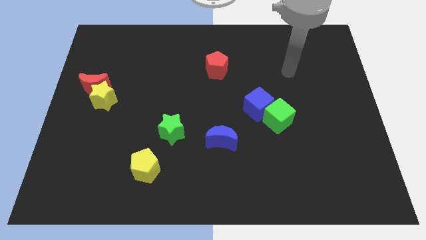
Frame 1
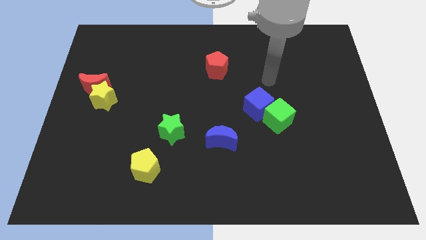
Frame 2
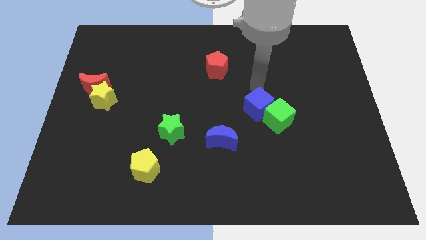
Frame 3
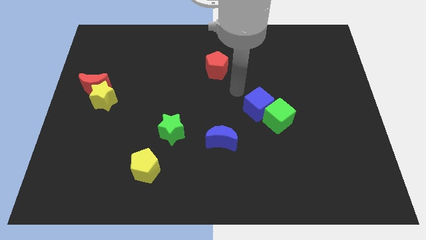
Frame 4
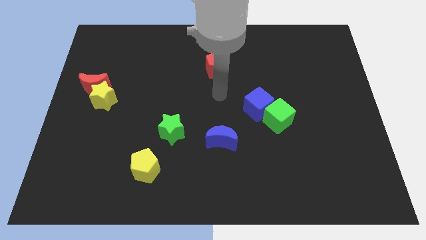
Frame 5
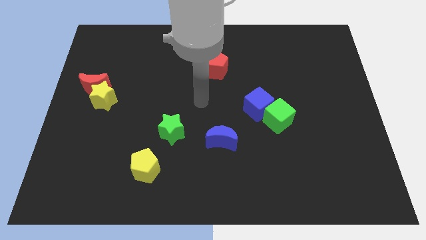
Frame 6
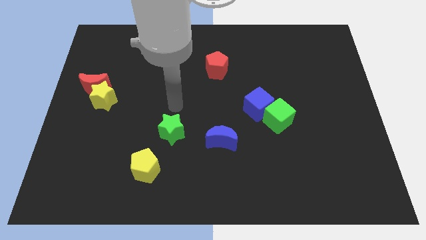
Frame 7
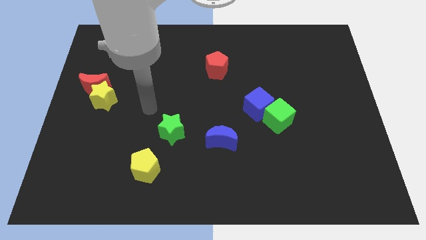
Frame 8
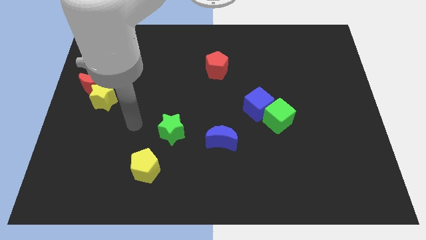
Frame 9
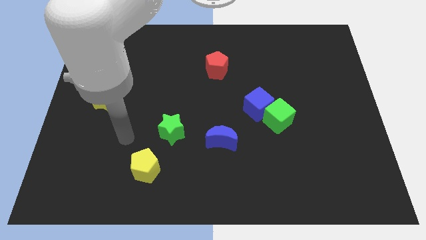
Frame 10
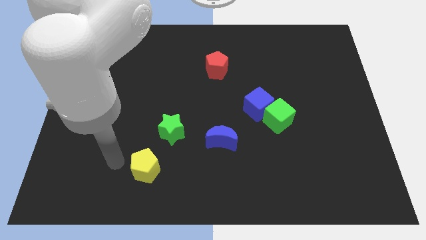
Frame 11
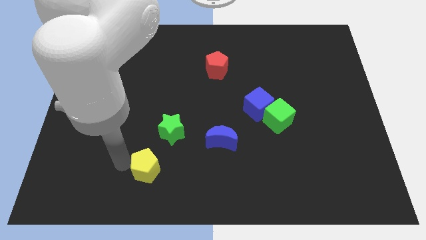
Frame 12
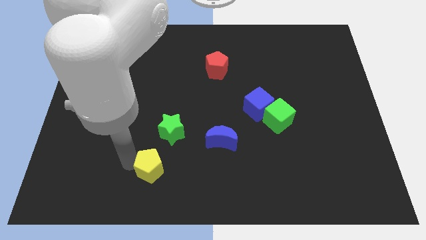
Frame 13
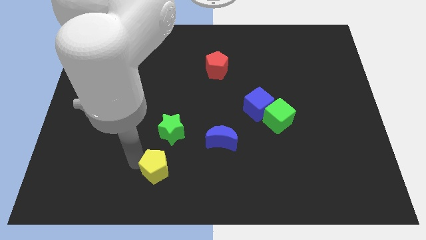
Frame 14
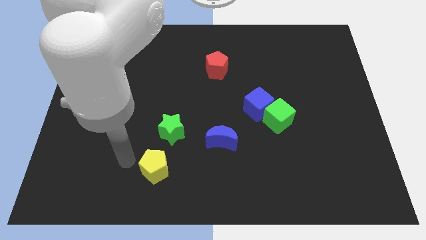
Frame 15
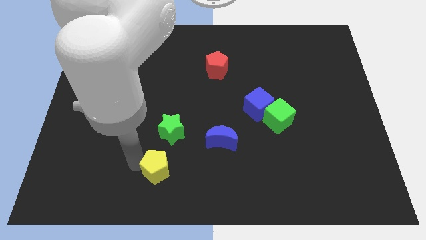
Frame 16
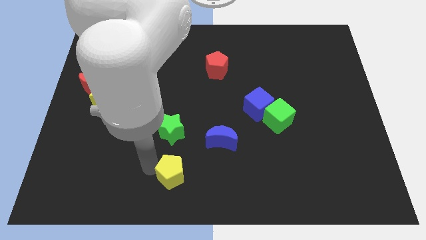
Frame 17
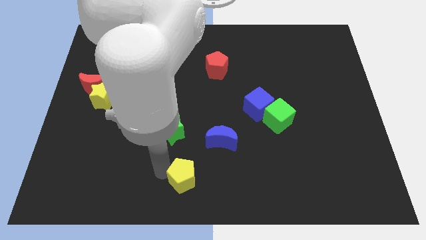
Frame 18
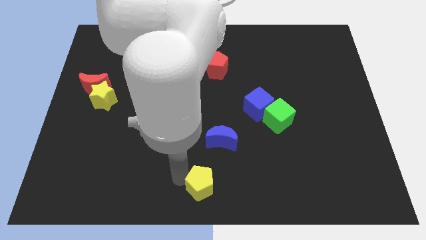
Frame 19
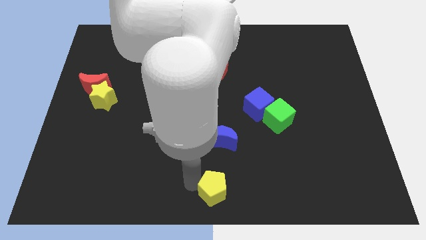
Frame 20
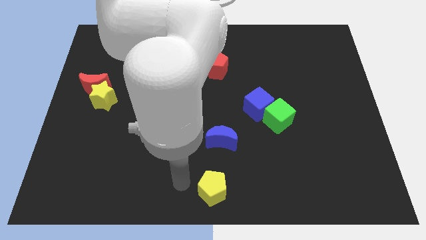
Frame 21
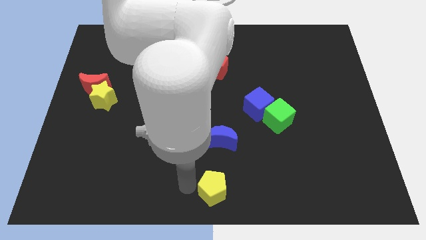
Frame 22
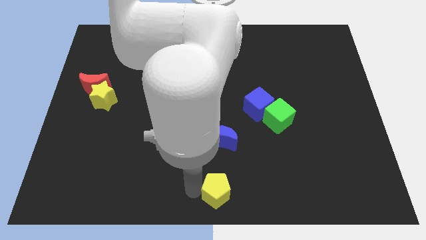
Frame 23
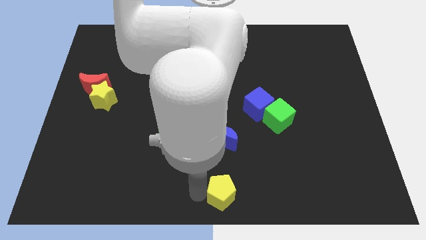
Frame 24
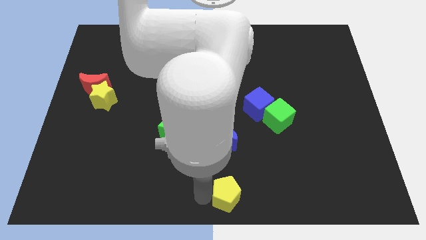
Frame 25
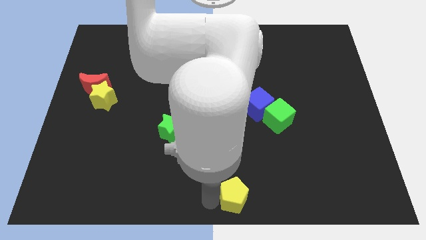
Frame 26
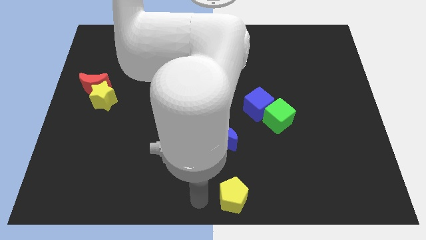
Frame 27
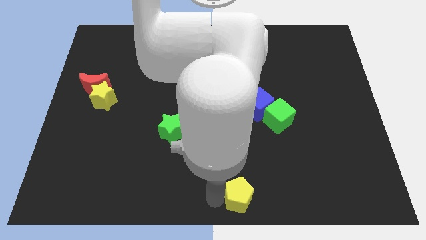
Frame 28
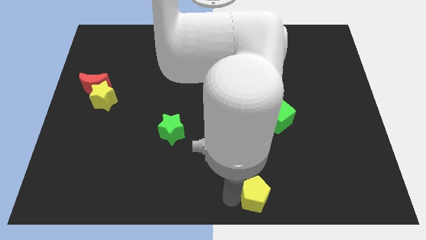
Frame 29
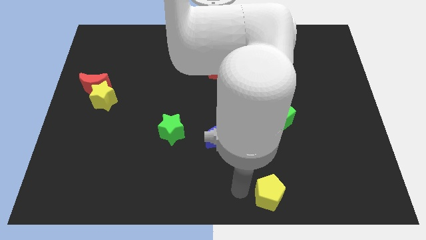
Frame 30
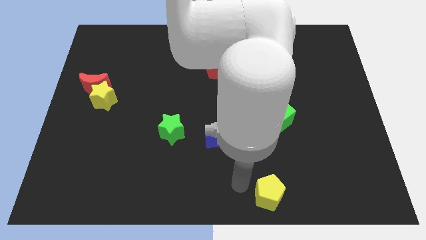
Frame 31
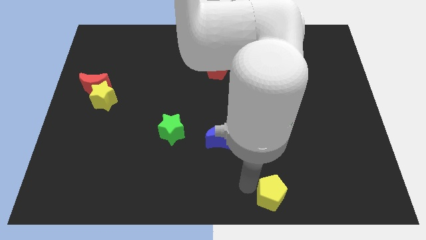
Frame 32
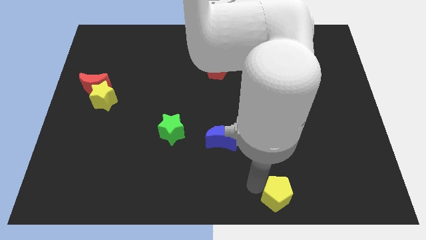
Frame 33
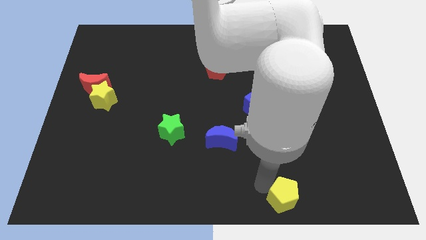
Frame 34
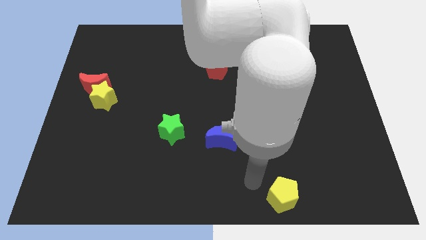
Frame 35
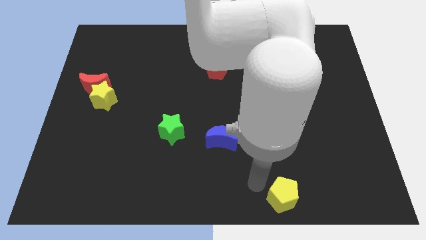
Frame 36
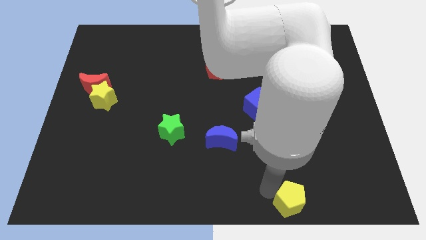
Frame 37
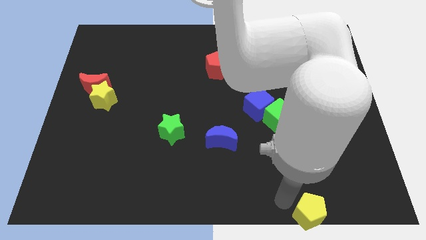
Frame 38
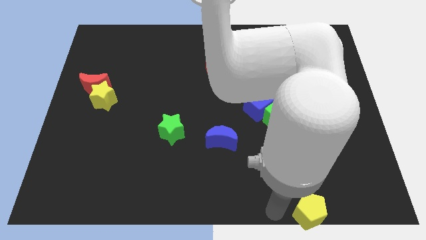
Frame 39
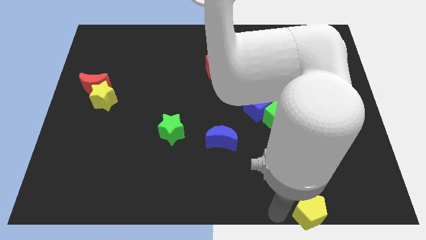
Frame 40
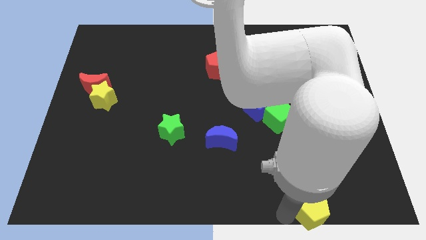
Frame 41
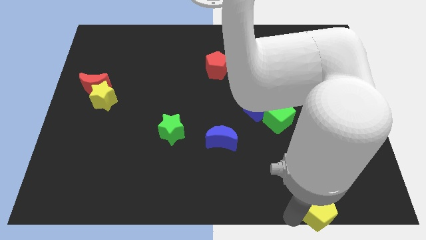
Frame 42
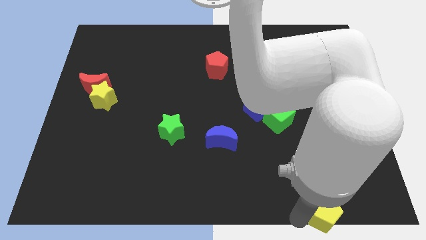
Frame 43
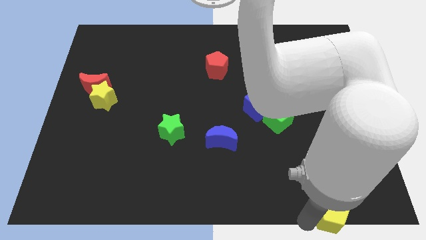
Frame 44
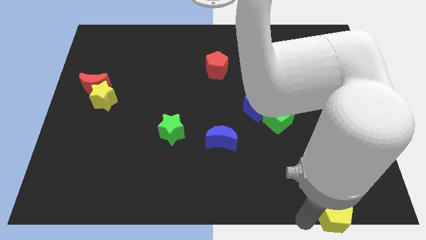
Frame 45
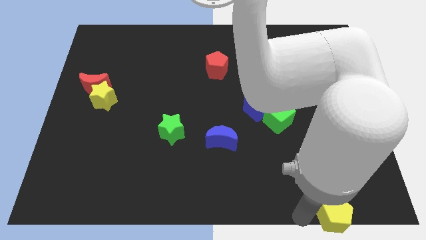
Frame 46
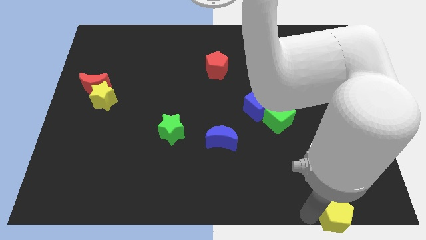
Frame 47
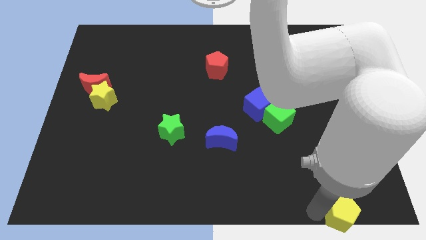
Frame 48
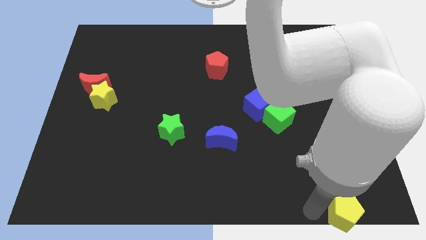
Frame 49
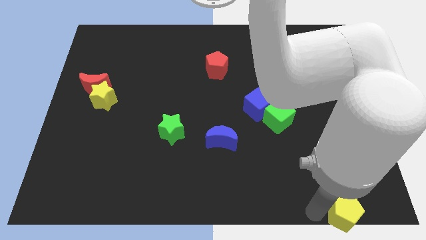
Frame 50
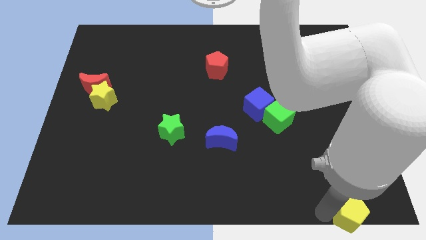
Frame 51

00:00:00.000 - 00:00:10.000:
push the yellow pentagon to the lower right corner

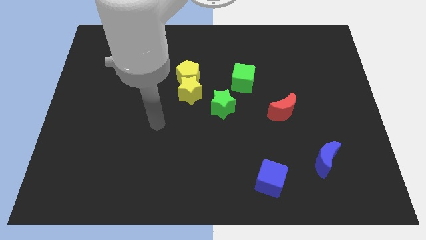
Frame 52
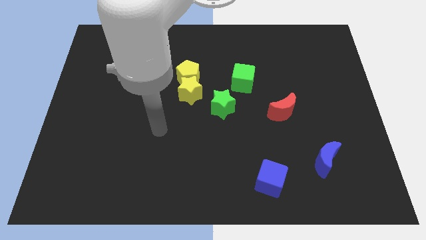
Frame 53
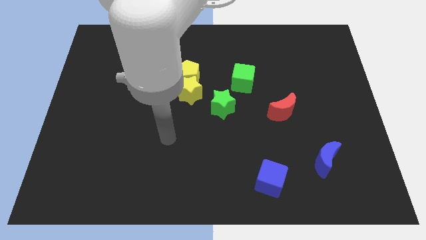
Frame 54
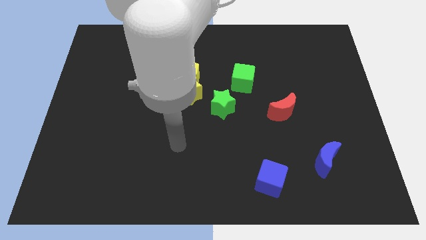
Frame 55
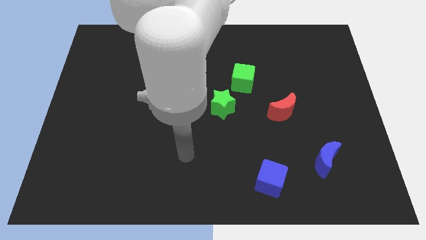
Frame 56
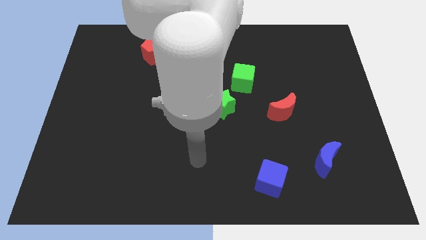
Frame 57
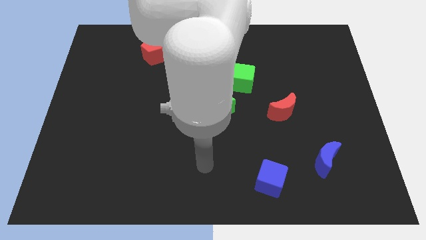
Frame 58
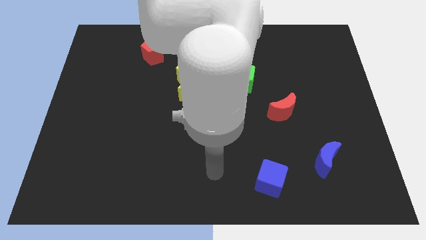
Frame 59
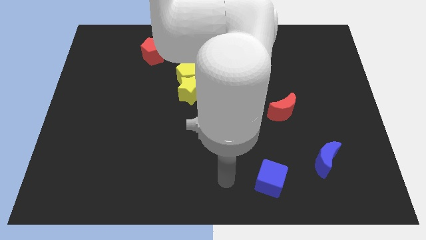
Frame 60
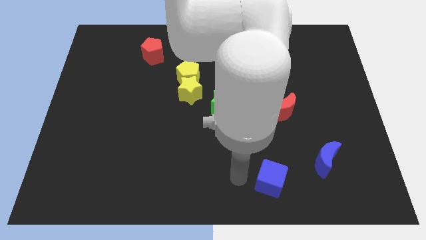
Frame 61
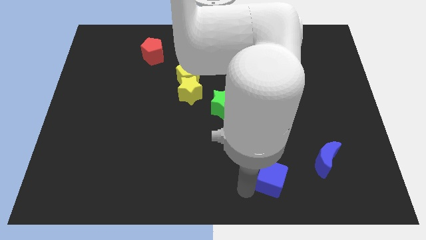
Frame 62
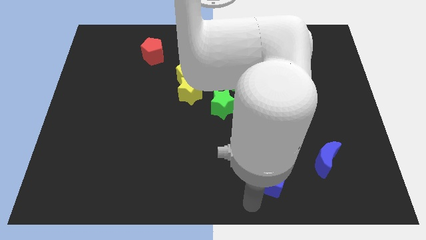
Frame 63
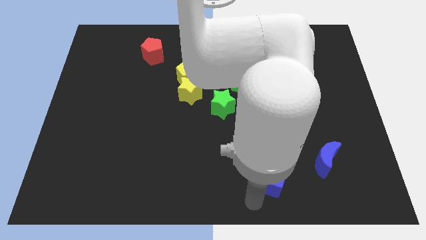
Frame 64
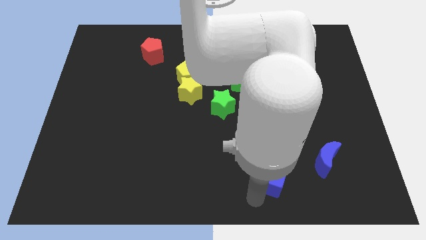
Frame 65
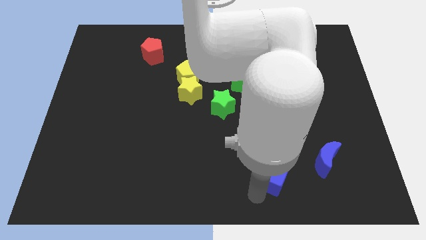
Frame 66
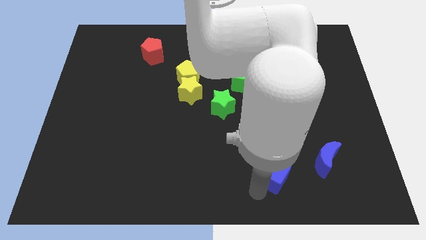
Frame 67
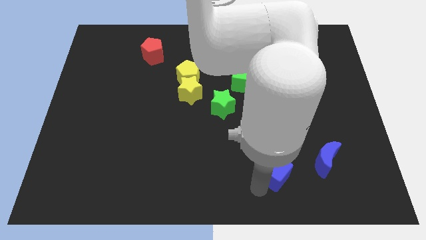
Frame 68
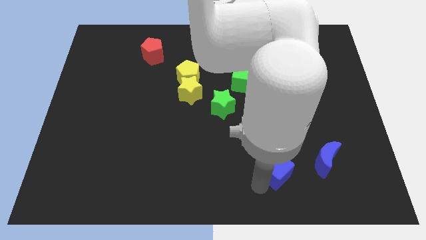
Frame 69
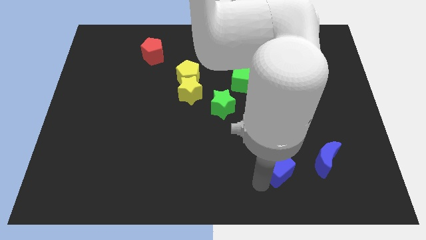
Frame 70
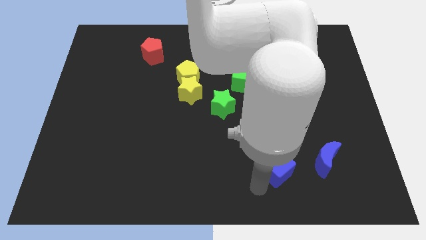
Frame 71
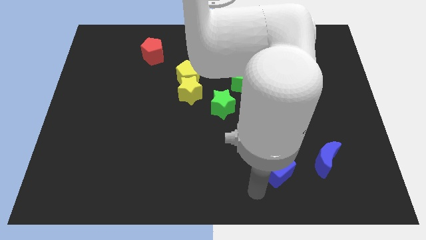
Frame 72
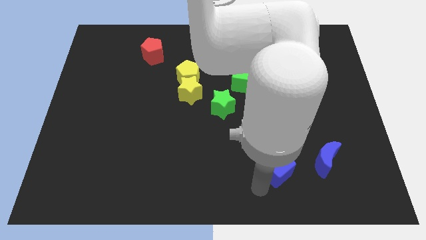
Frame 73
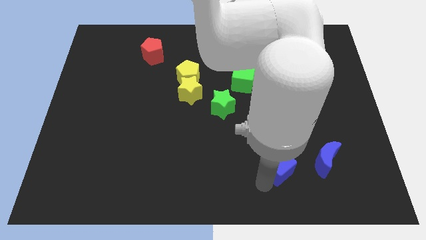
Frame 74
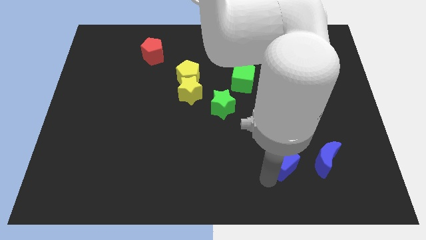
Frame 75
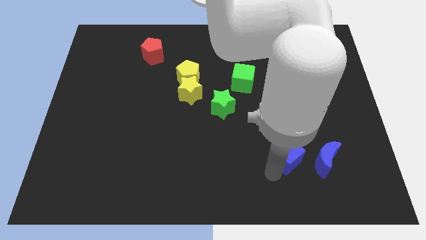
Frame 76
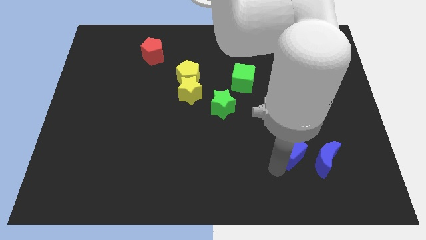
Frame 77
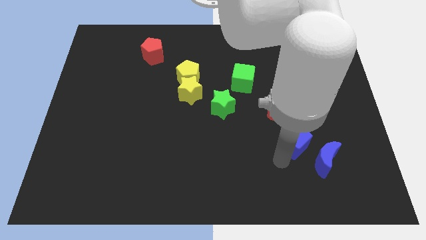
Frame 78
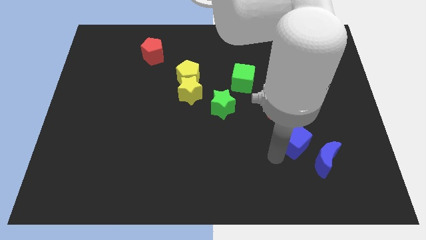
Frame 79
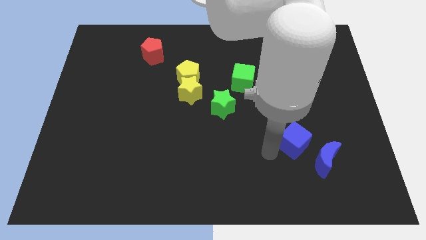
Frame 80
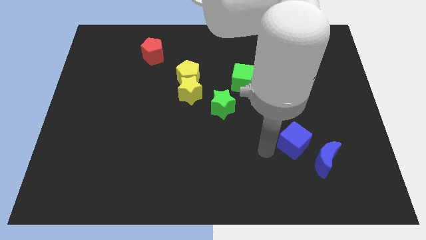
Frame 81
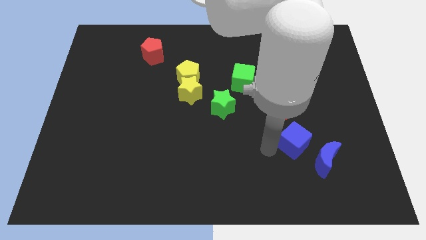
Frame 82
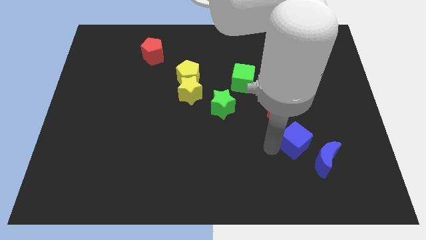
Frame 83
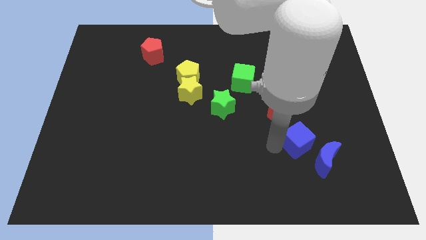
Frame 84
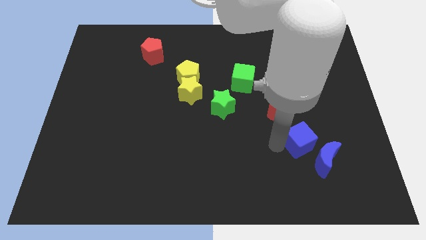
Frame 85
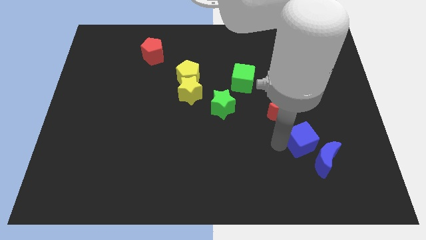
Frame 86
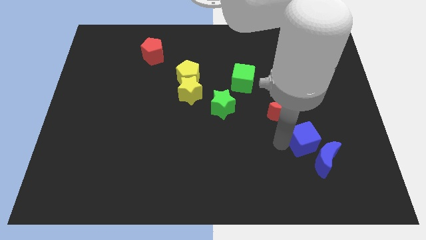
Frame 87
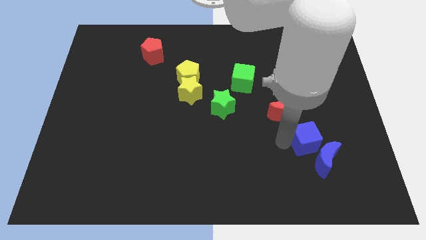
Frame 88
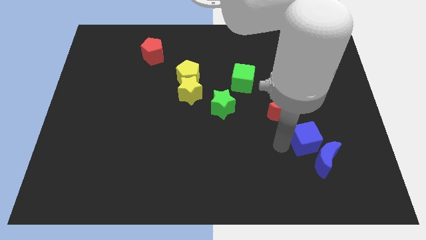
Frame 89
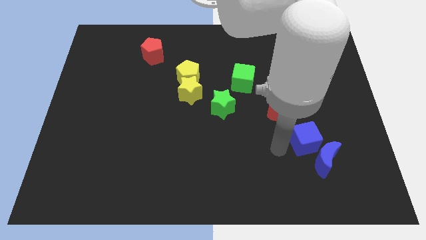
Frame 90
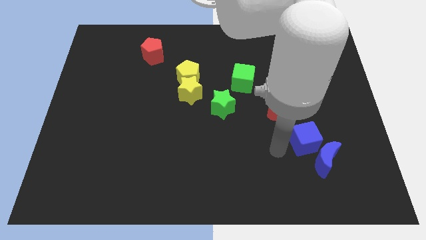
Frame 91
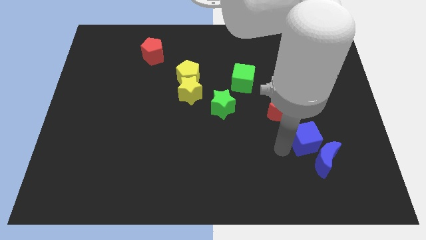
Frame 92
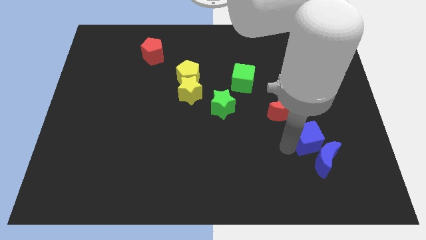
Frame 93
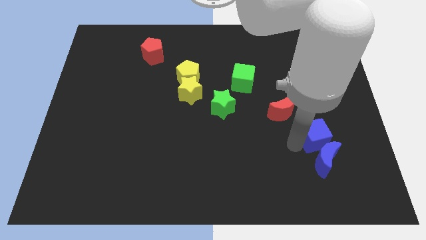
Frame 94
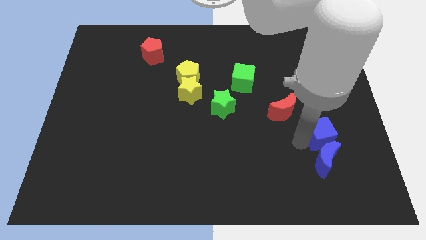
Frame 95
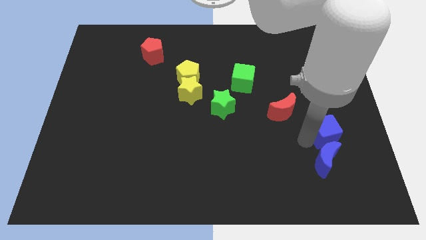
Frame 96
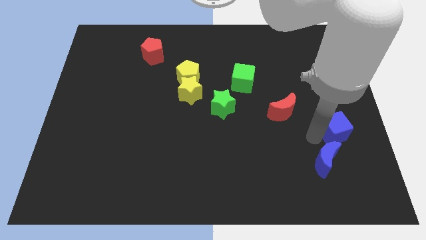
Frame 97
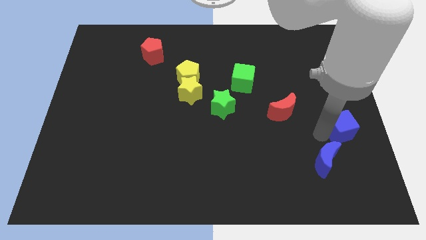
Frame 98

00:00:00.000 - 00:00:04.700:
push the blue cube to the right side of the board
